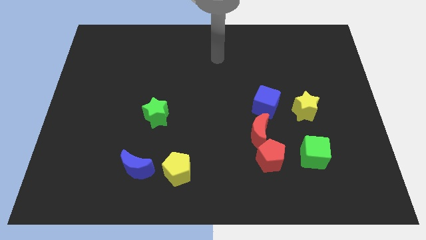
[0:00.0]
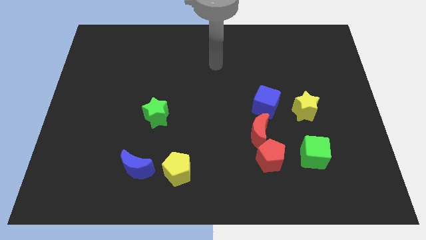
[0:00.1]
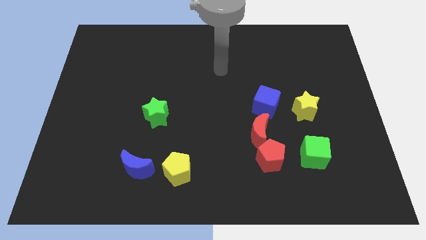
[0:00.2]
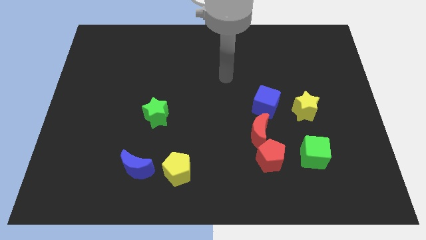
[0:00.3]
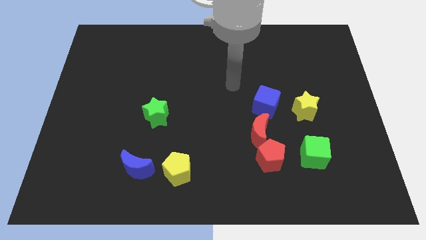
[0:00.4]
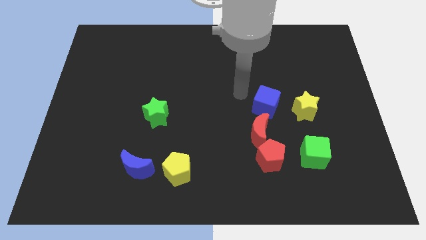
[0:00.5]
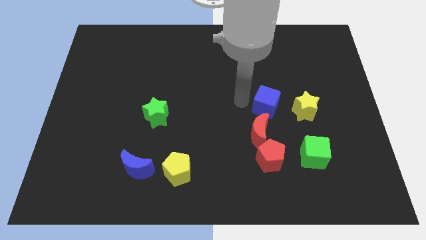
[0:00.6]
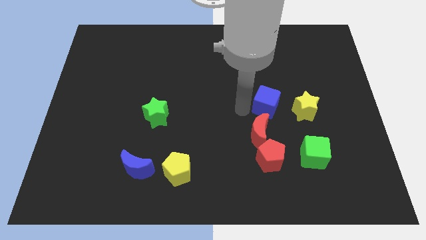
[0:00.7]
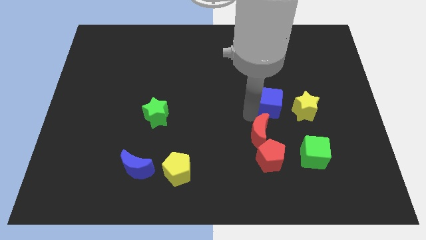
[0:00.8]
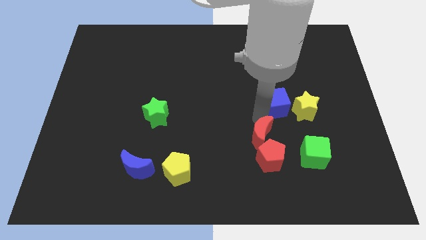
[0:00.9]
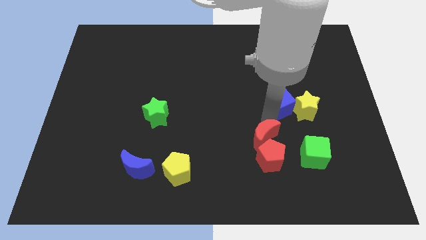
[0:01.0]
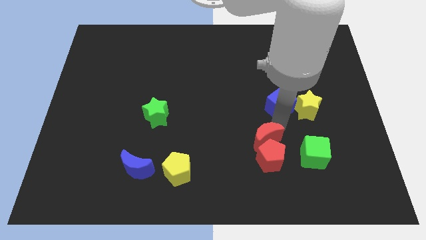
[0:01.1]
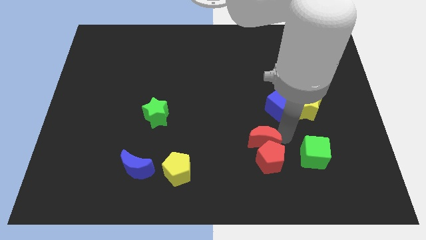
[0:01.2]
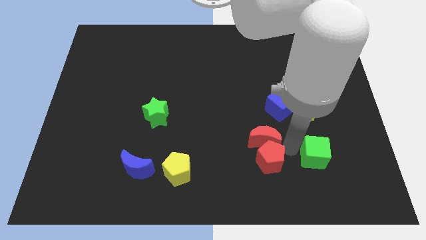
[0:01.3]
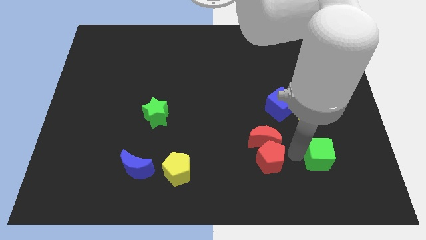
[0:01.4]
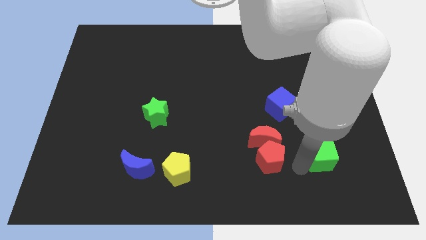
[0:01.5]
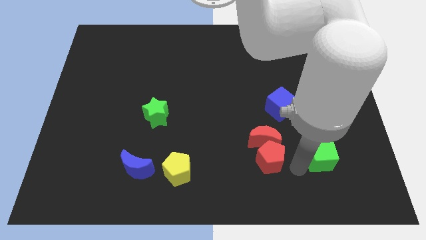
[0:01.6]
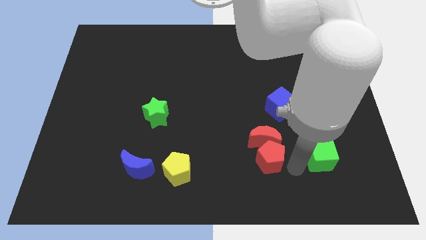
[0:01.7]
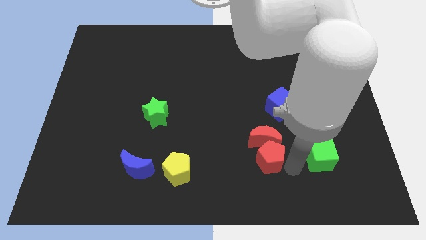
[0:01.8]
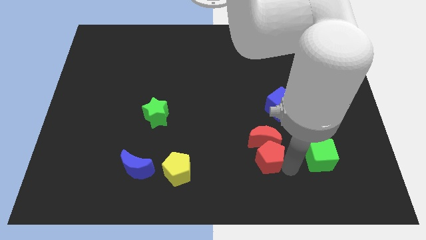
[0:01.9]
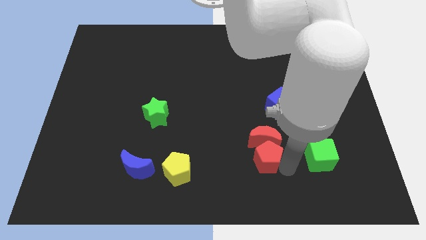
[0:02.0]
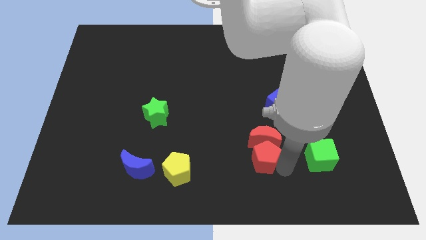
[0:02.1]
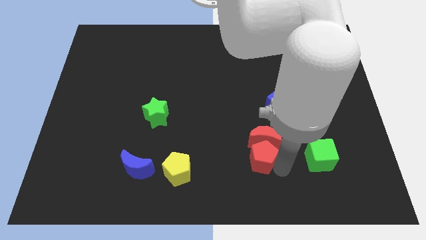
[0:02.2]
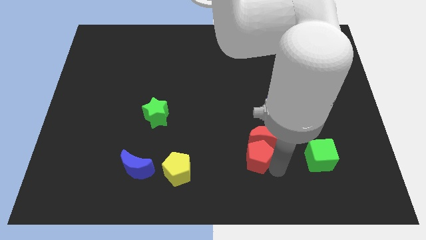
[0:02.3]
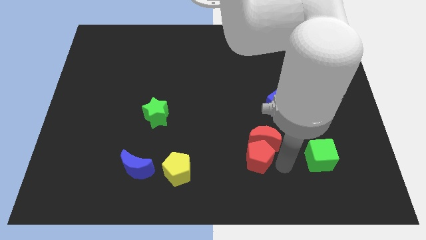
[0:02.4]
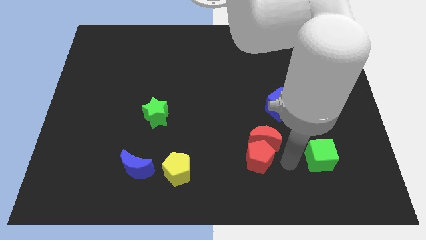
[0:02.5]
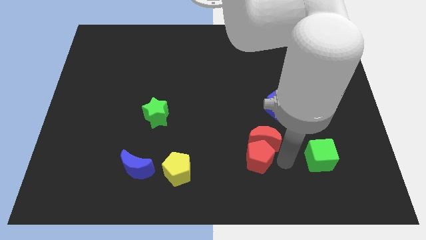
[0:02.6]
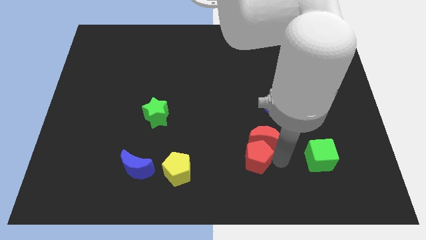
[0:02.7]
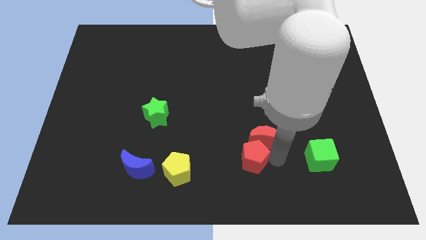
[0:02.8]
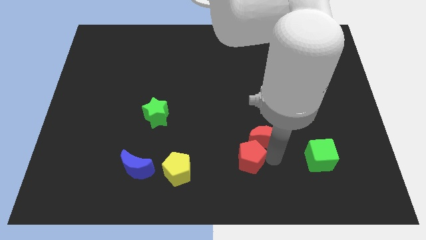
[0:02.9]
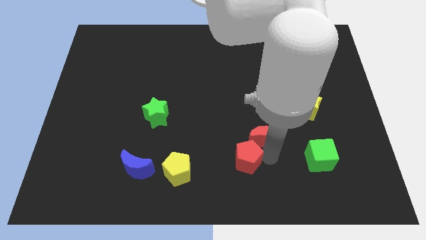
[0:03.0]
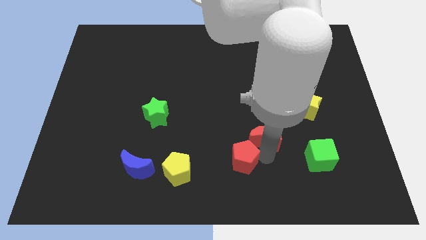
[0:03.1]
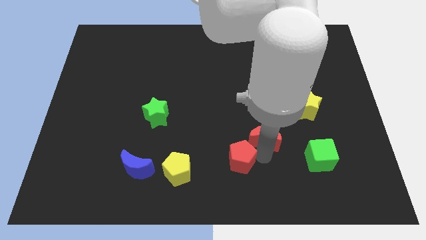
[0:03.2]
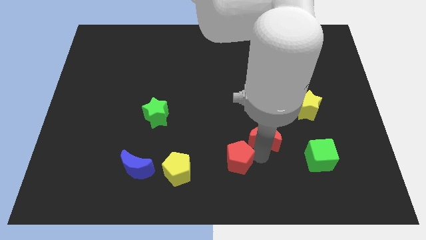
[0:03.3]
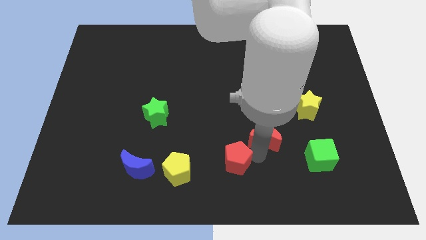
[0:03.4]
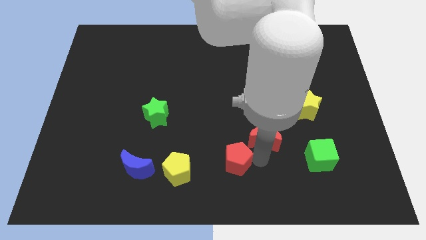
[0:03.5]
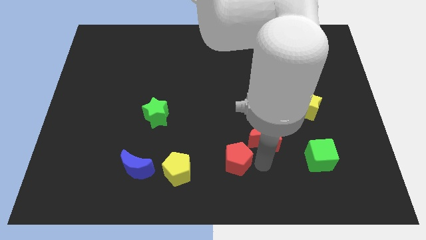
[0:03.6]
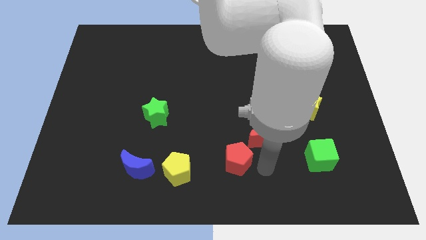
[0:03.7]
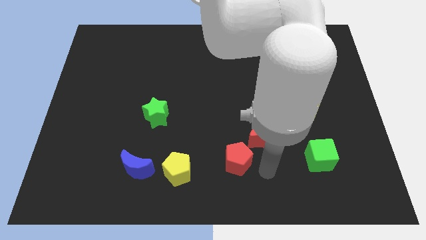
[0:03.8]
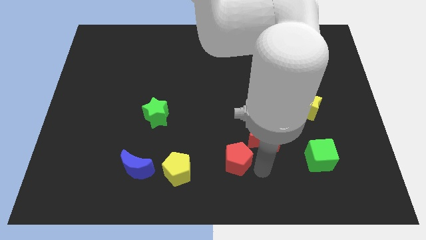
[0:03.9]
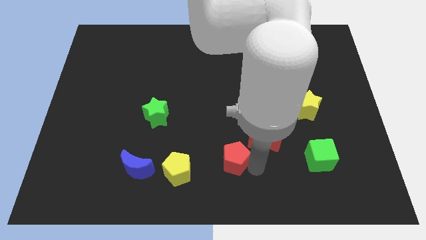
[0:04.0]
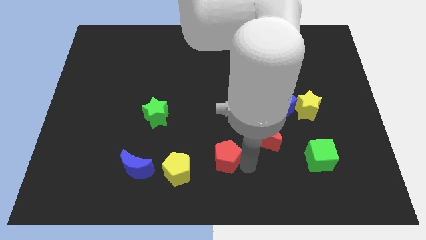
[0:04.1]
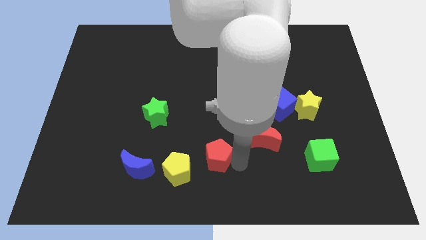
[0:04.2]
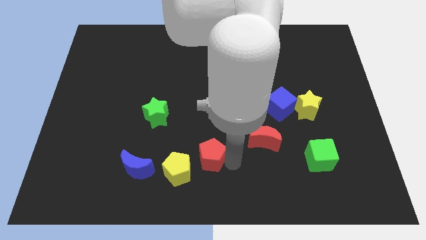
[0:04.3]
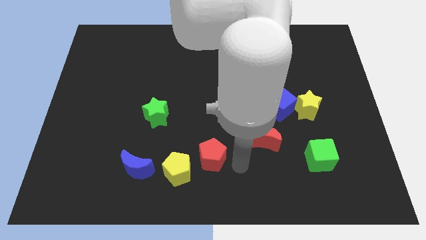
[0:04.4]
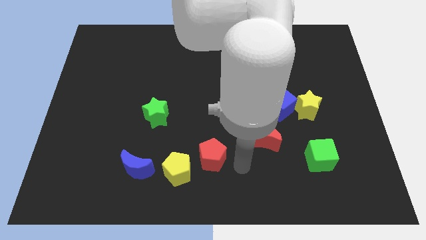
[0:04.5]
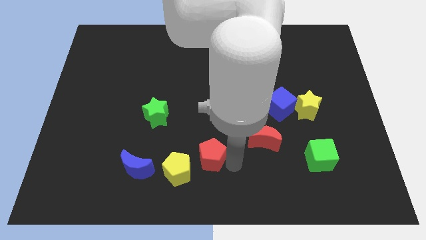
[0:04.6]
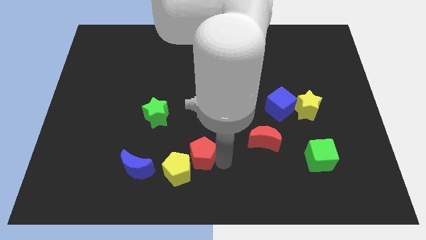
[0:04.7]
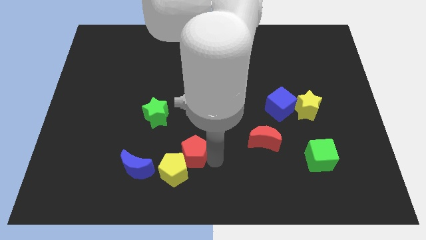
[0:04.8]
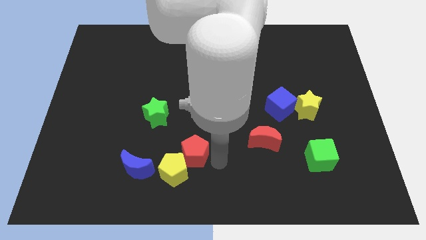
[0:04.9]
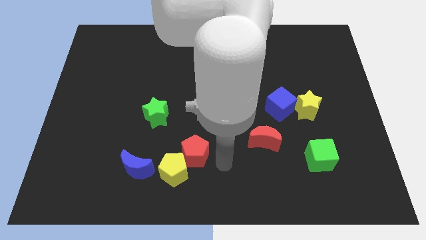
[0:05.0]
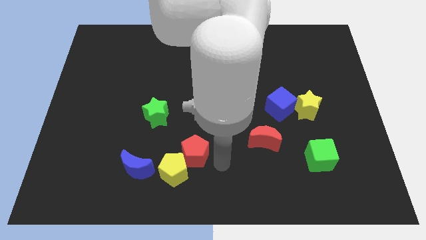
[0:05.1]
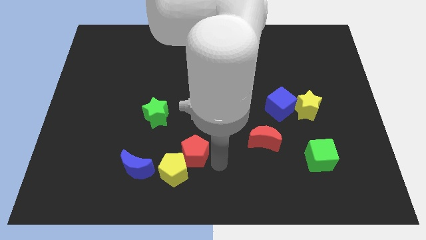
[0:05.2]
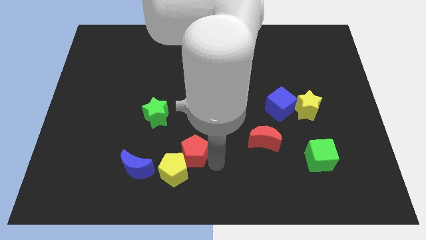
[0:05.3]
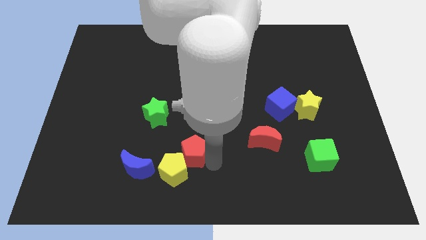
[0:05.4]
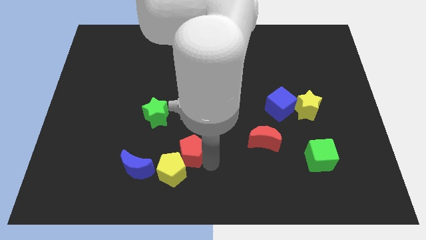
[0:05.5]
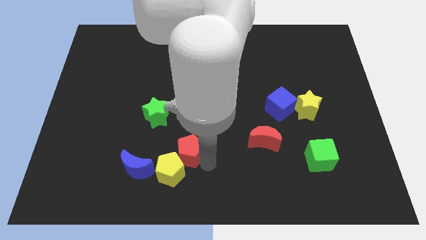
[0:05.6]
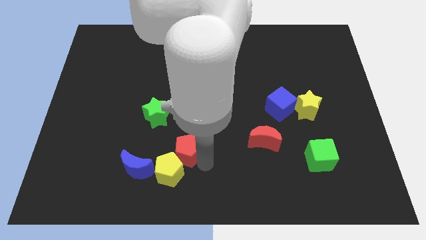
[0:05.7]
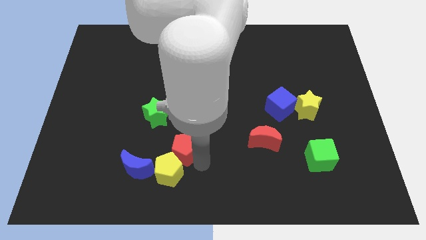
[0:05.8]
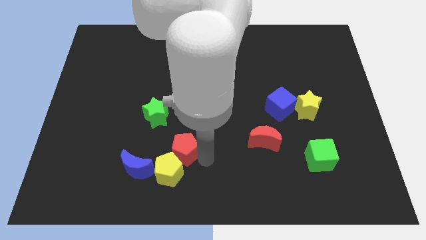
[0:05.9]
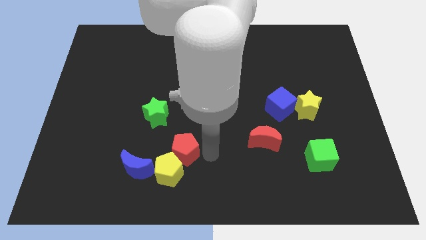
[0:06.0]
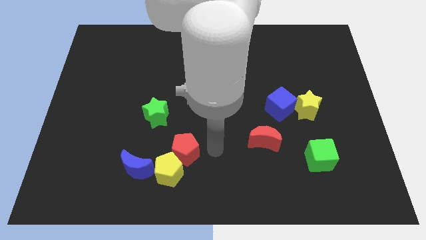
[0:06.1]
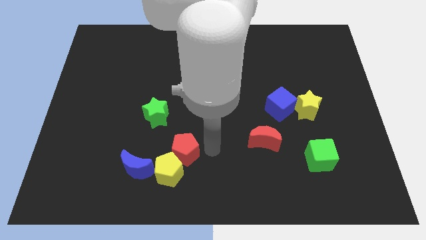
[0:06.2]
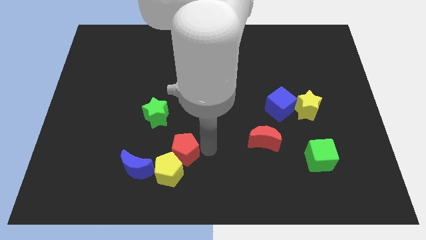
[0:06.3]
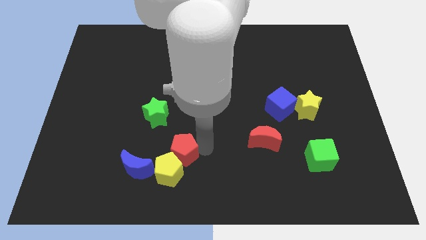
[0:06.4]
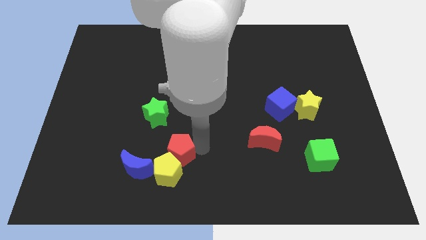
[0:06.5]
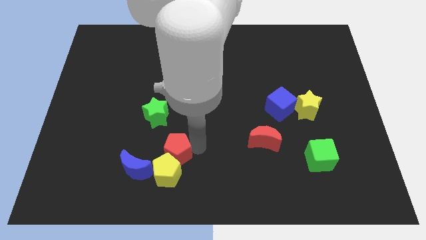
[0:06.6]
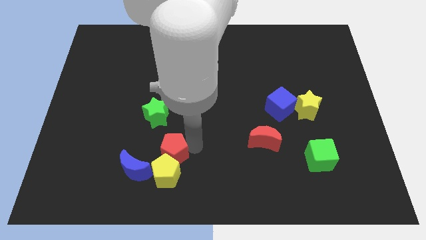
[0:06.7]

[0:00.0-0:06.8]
slide the red pentagon to the bottom side of the green star
